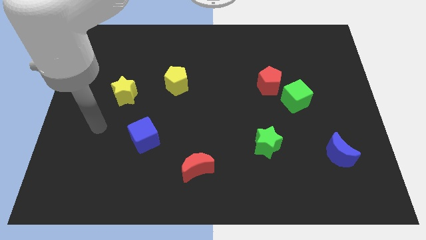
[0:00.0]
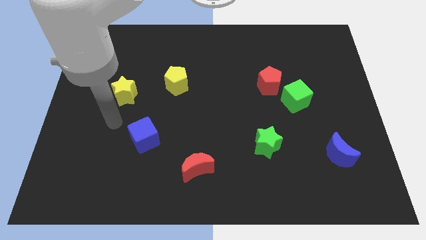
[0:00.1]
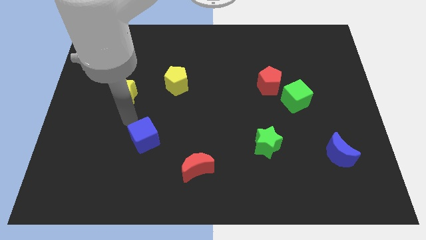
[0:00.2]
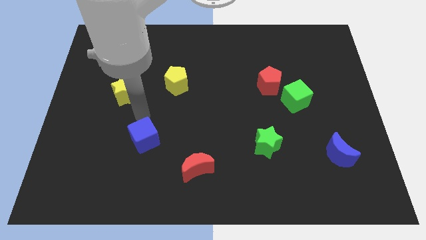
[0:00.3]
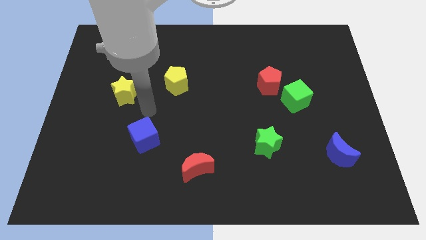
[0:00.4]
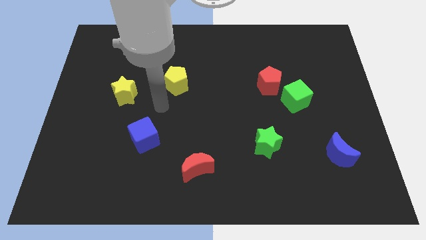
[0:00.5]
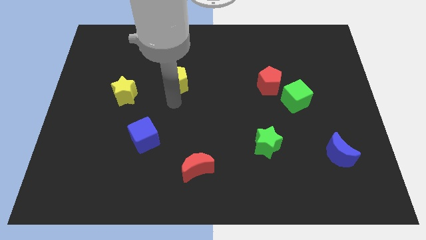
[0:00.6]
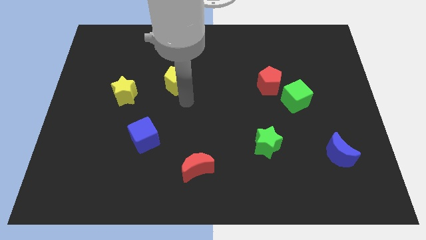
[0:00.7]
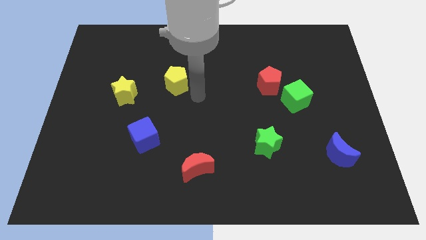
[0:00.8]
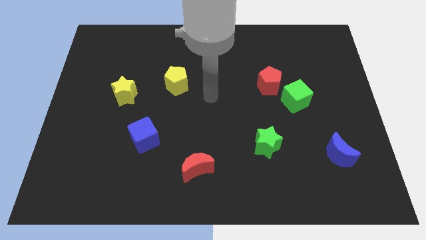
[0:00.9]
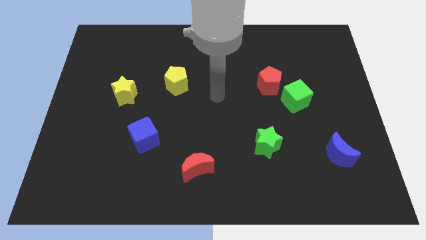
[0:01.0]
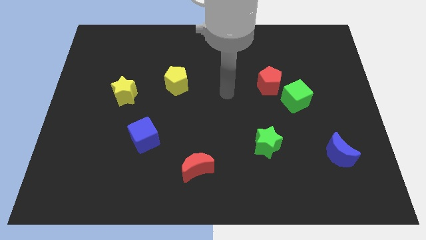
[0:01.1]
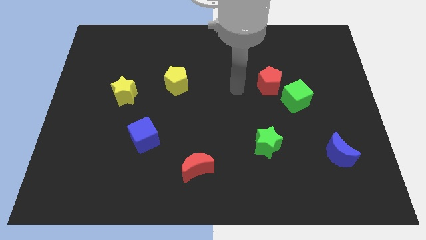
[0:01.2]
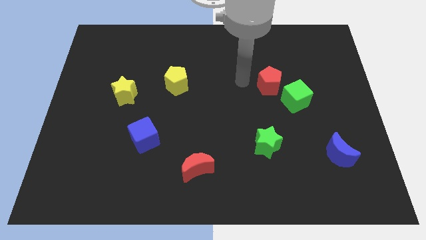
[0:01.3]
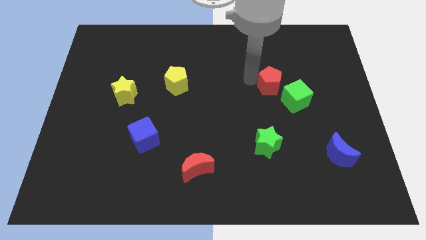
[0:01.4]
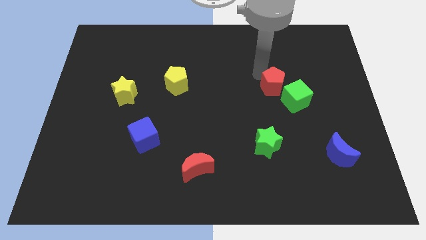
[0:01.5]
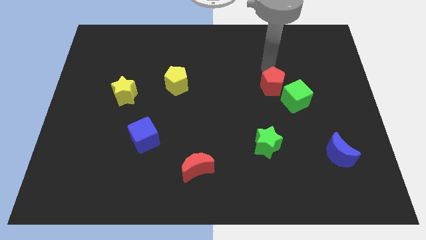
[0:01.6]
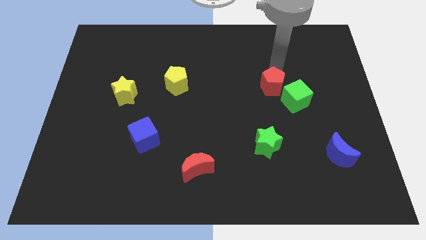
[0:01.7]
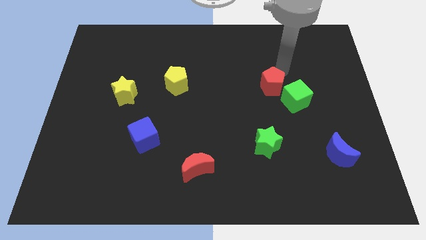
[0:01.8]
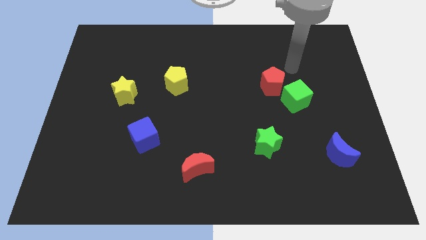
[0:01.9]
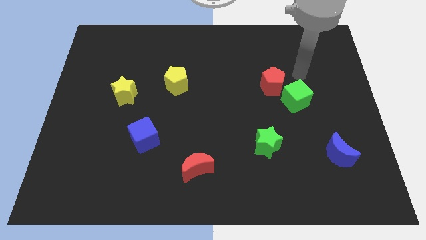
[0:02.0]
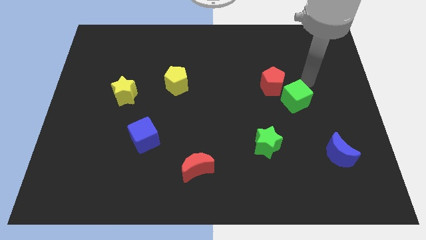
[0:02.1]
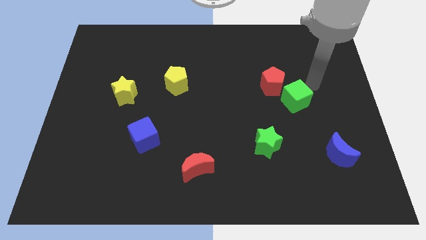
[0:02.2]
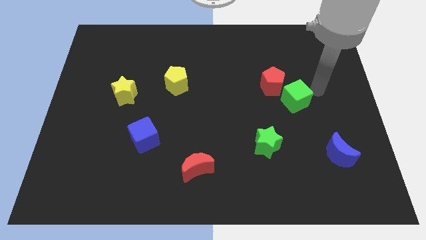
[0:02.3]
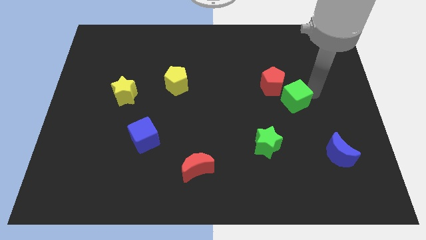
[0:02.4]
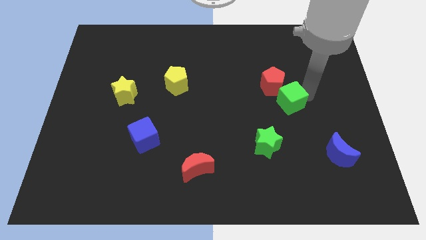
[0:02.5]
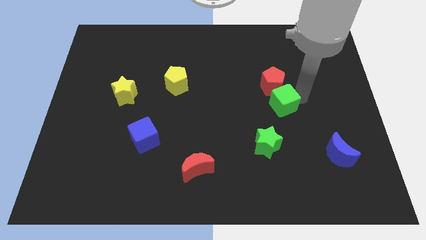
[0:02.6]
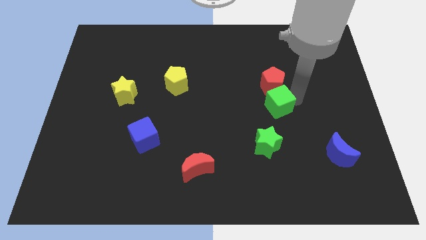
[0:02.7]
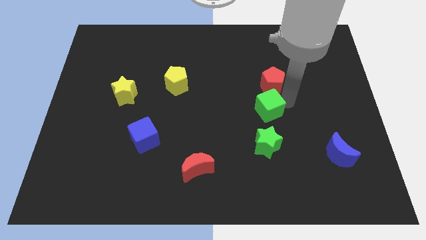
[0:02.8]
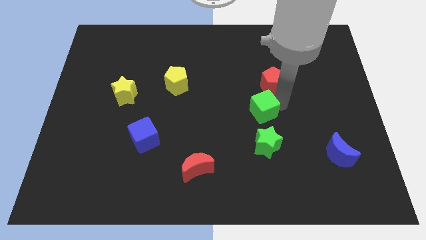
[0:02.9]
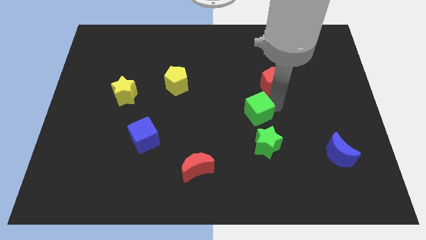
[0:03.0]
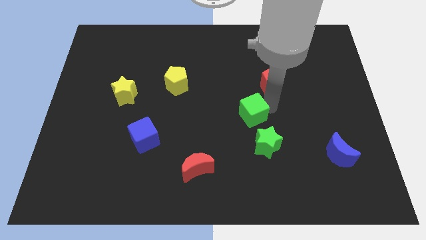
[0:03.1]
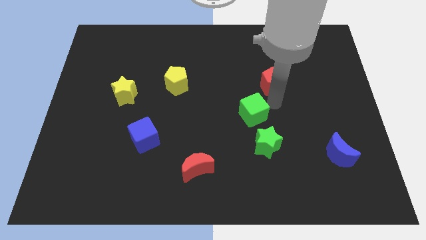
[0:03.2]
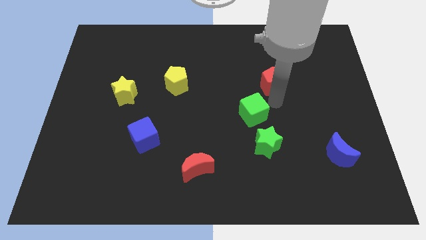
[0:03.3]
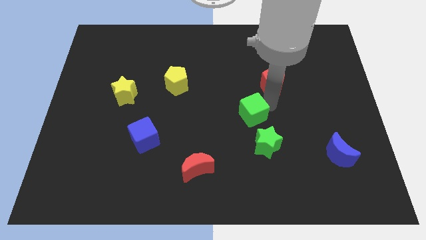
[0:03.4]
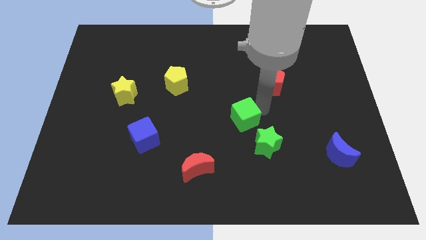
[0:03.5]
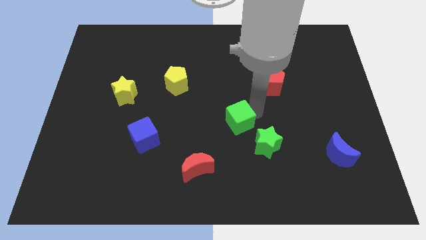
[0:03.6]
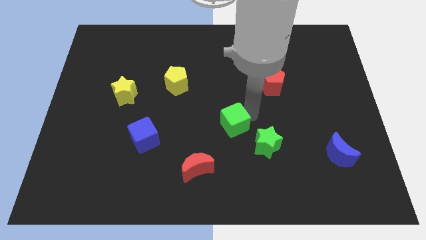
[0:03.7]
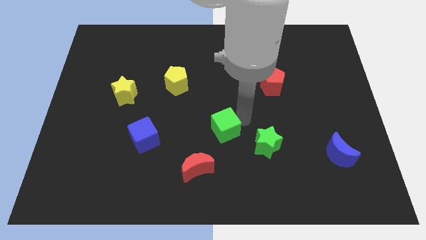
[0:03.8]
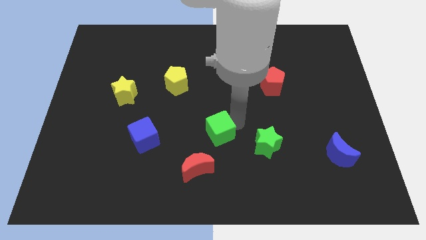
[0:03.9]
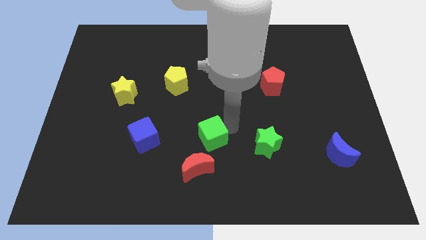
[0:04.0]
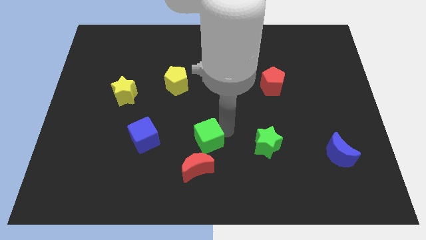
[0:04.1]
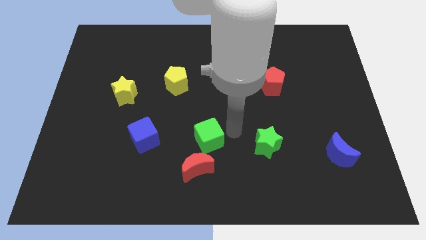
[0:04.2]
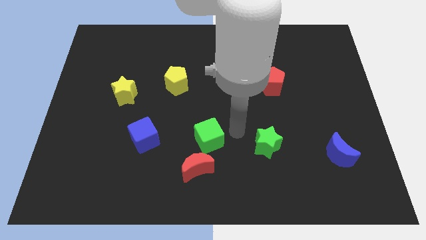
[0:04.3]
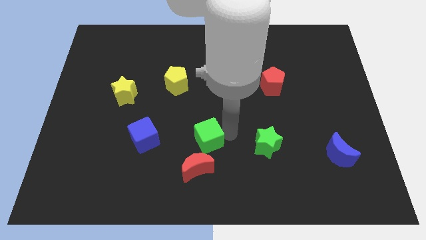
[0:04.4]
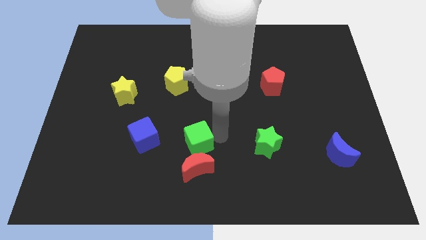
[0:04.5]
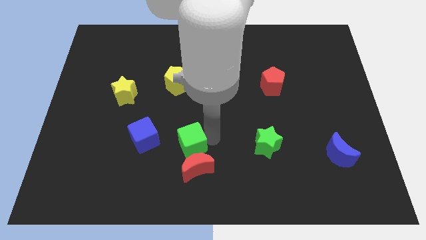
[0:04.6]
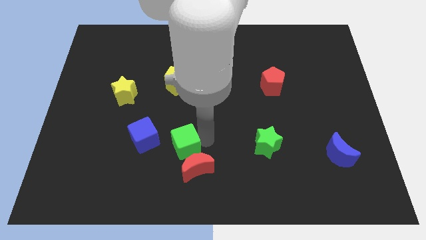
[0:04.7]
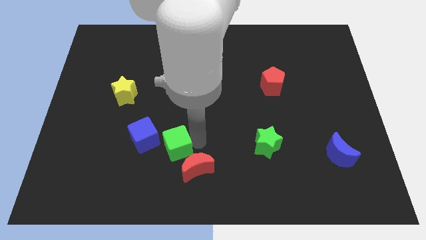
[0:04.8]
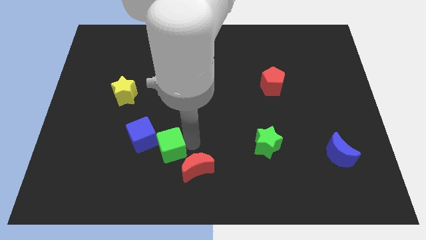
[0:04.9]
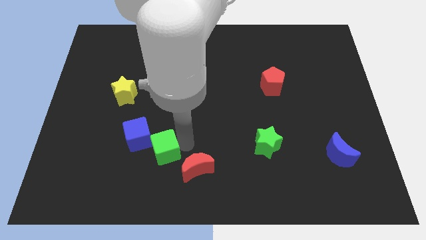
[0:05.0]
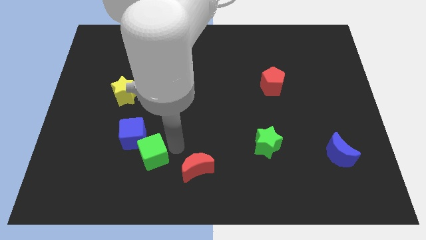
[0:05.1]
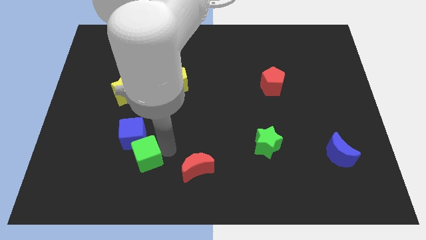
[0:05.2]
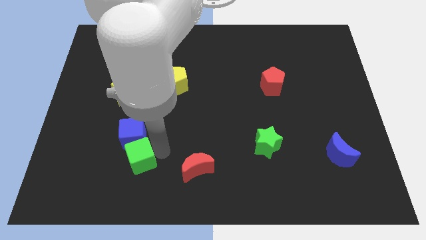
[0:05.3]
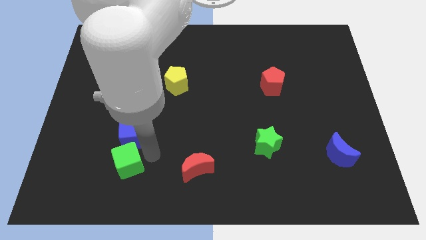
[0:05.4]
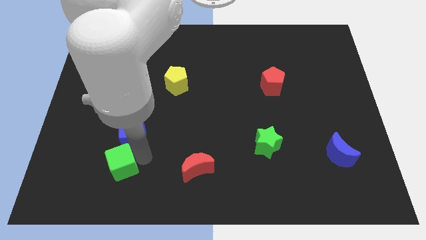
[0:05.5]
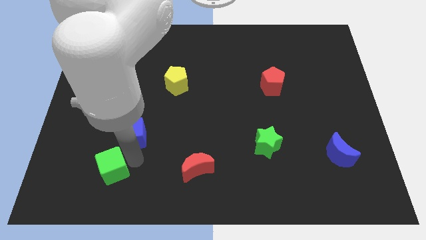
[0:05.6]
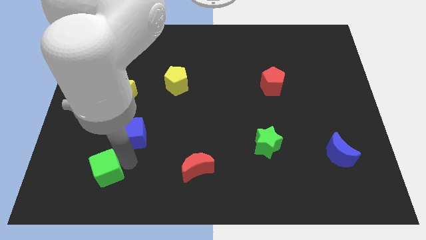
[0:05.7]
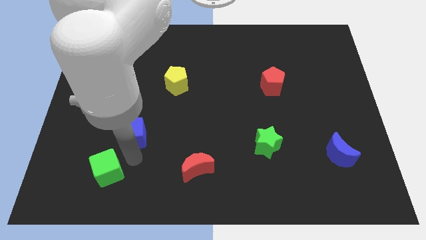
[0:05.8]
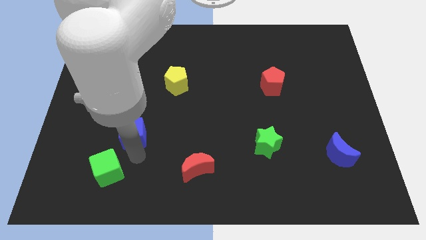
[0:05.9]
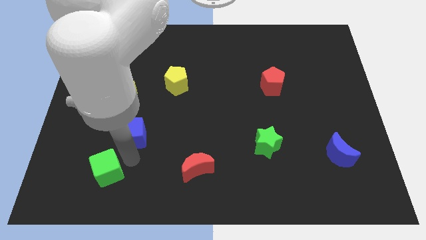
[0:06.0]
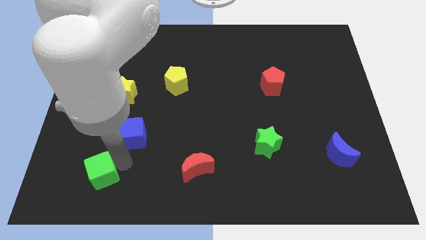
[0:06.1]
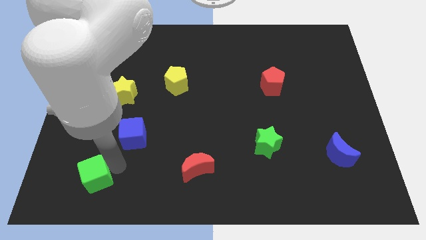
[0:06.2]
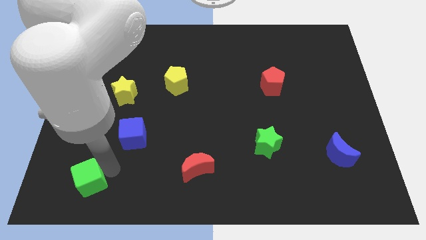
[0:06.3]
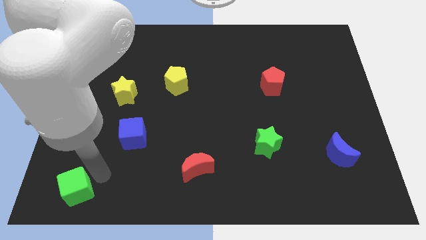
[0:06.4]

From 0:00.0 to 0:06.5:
push the green cube to the lower left corner

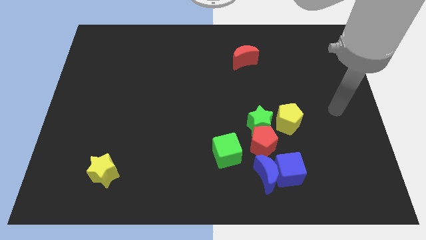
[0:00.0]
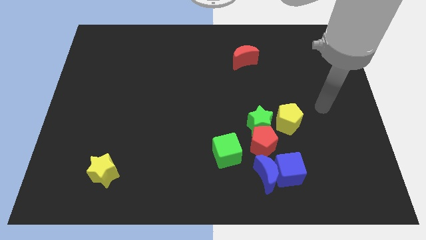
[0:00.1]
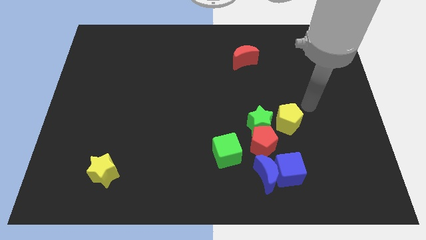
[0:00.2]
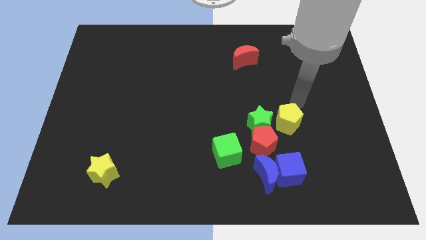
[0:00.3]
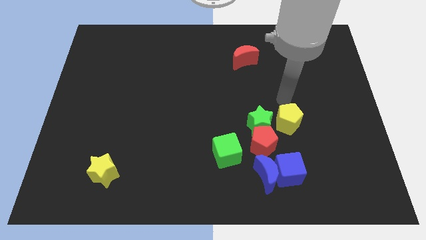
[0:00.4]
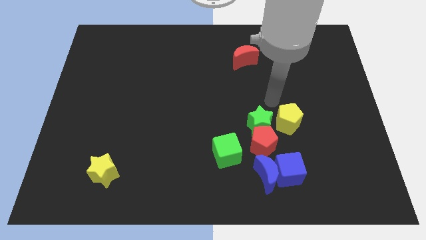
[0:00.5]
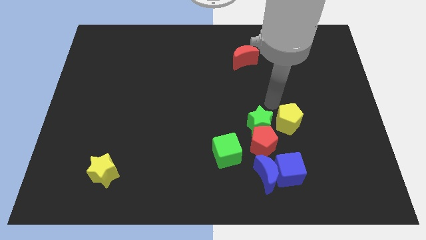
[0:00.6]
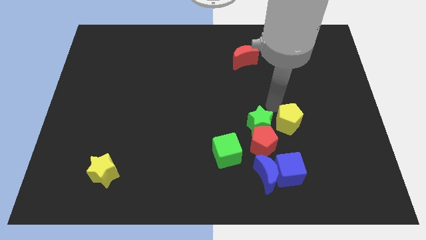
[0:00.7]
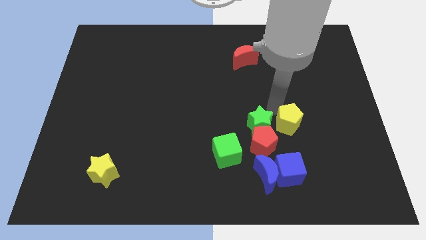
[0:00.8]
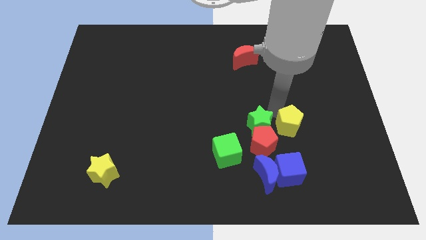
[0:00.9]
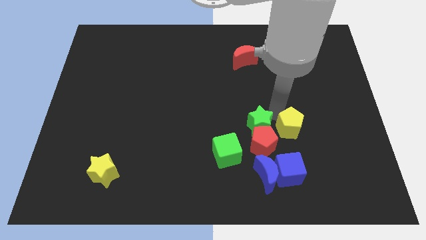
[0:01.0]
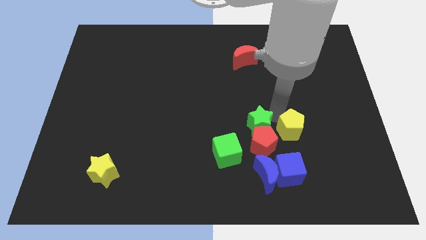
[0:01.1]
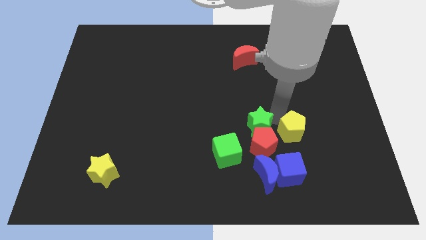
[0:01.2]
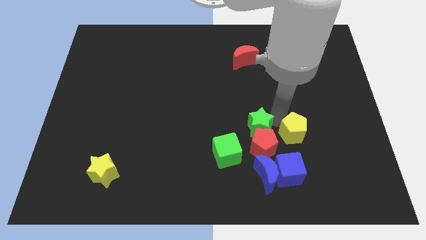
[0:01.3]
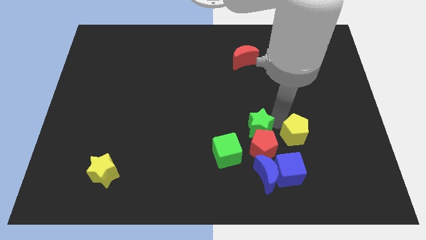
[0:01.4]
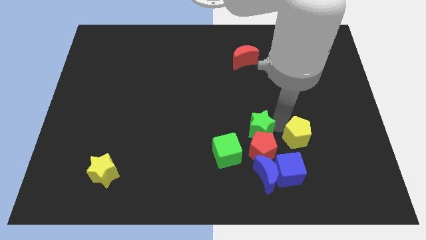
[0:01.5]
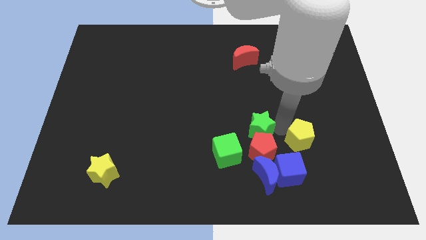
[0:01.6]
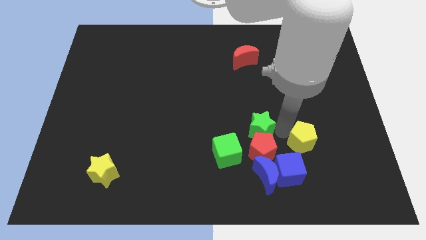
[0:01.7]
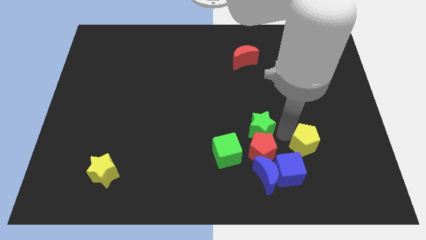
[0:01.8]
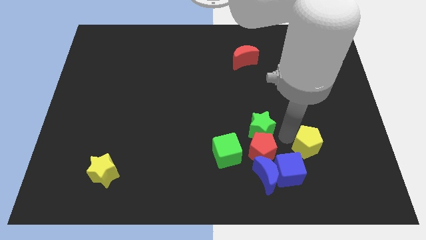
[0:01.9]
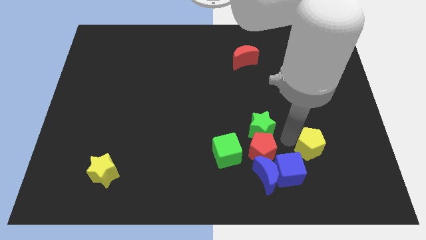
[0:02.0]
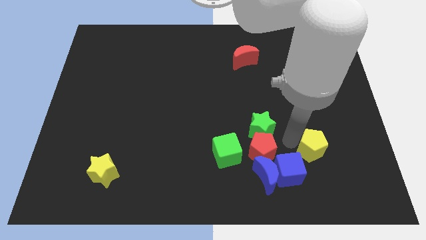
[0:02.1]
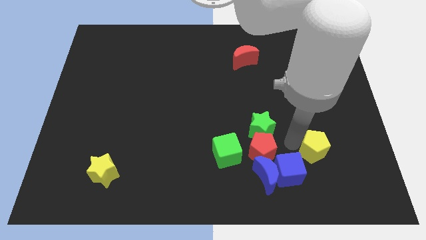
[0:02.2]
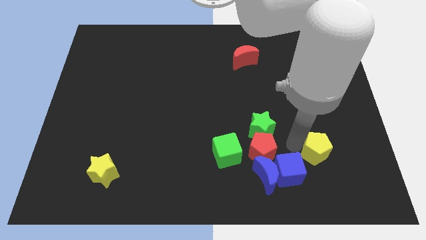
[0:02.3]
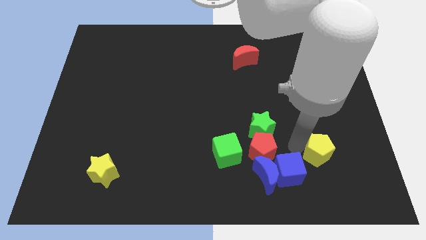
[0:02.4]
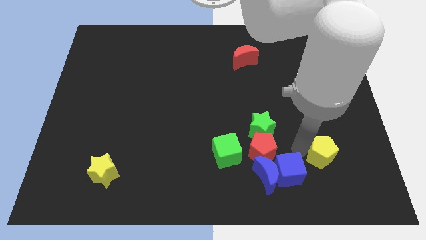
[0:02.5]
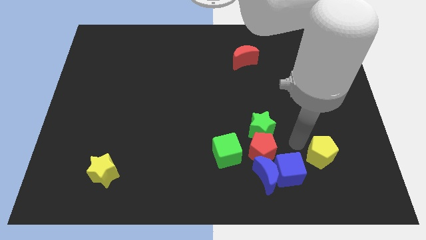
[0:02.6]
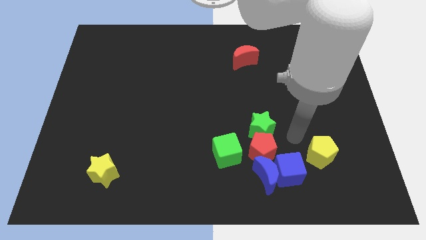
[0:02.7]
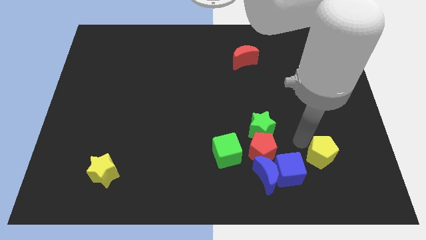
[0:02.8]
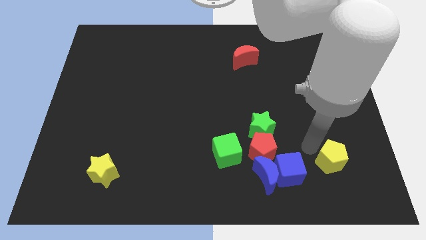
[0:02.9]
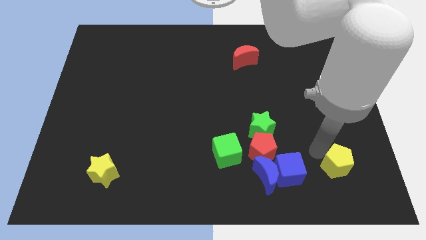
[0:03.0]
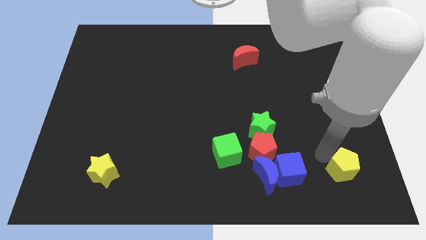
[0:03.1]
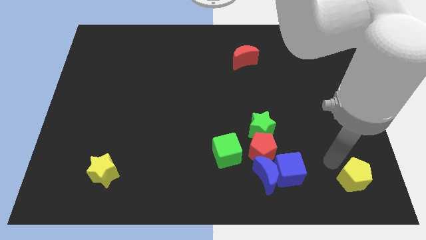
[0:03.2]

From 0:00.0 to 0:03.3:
slide the yellow pentagon to the bottom right
